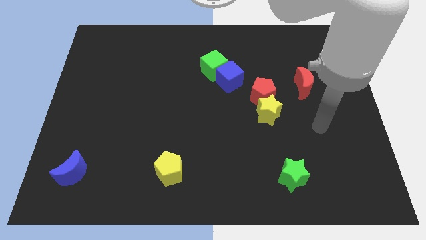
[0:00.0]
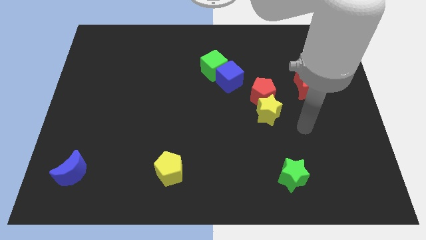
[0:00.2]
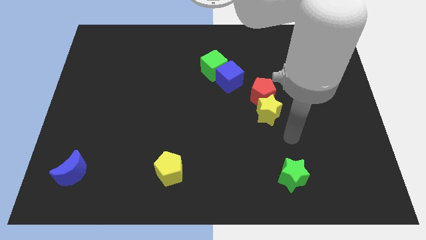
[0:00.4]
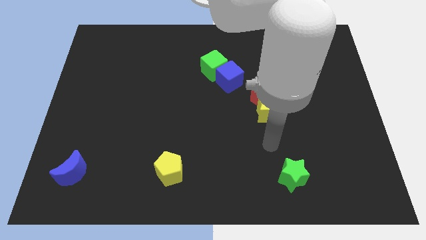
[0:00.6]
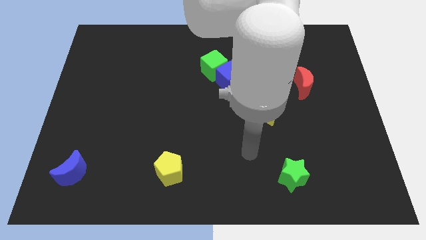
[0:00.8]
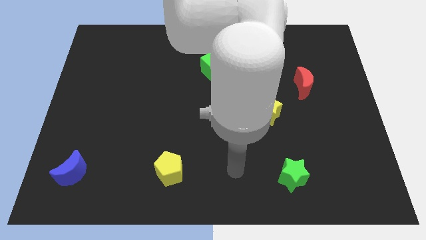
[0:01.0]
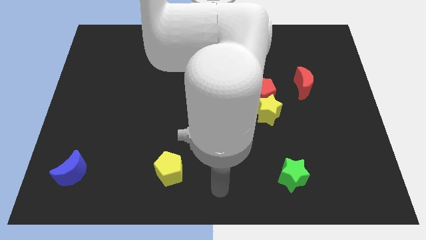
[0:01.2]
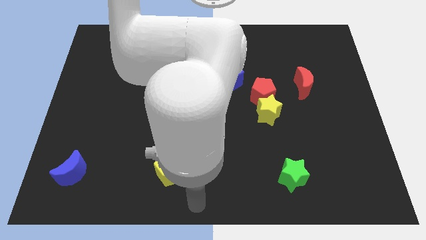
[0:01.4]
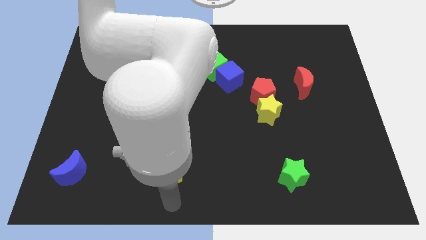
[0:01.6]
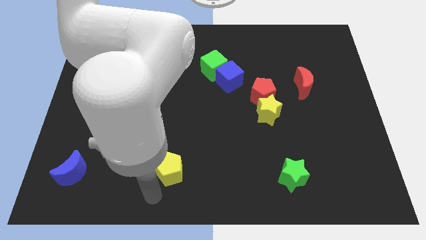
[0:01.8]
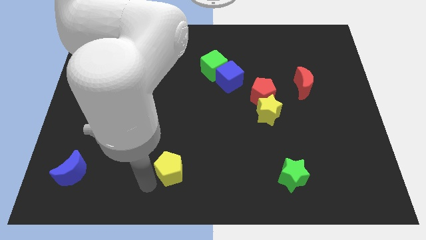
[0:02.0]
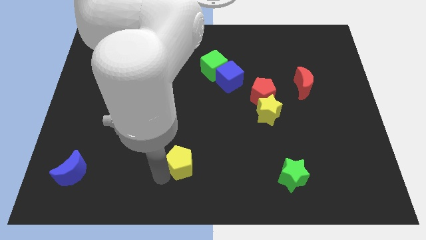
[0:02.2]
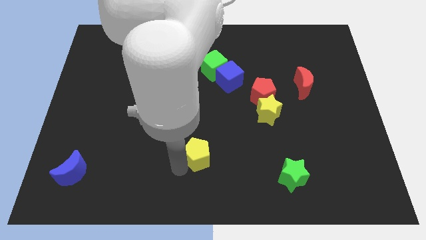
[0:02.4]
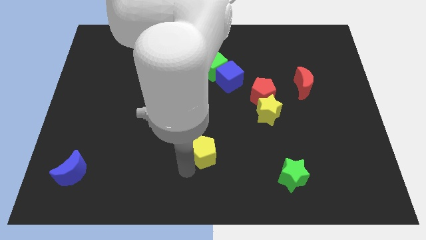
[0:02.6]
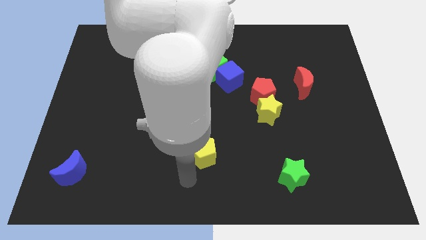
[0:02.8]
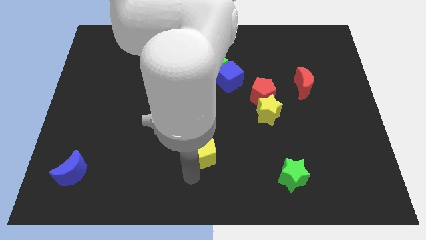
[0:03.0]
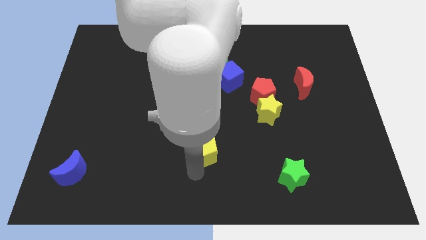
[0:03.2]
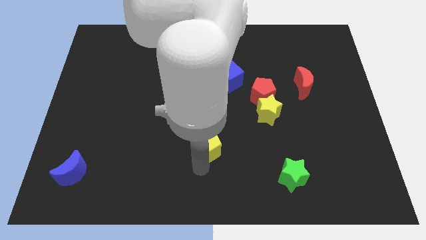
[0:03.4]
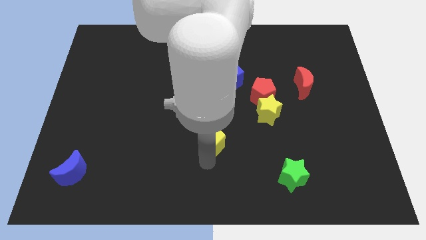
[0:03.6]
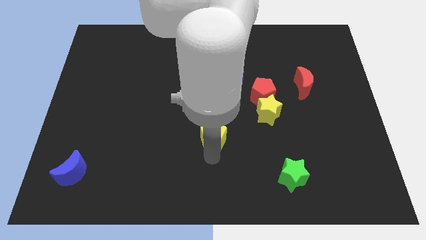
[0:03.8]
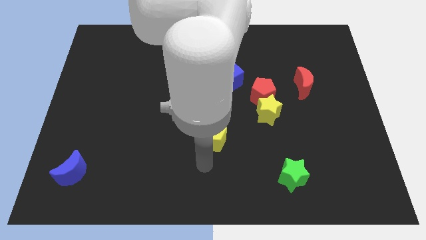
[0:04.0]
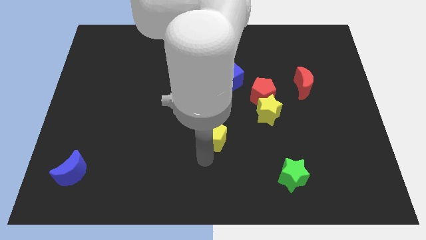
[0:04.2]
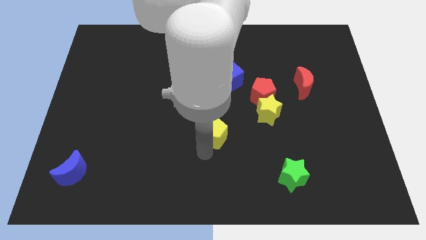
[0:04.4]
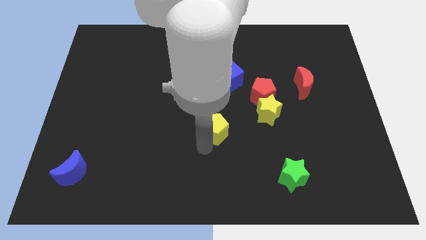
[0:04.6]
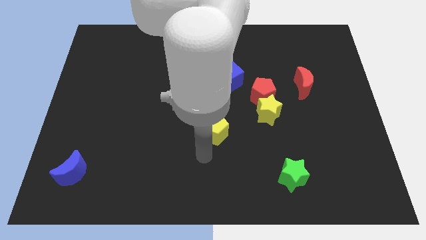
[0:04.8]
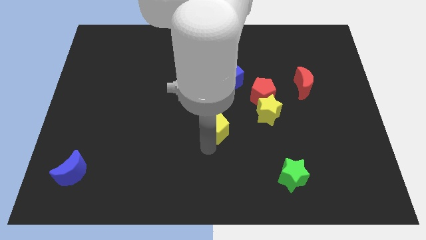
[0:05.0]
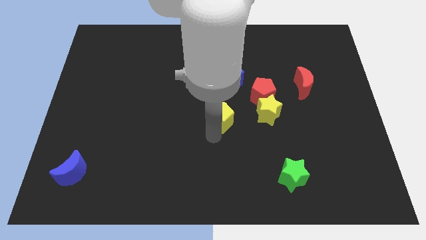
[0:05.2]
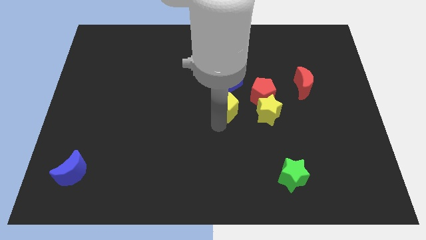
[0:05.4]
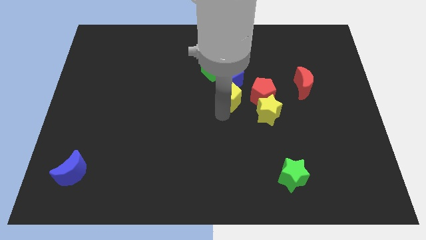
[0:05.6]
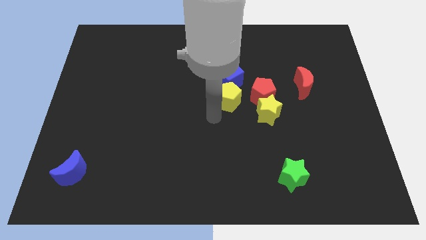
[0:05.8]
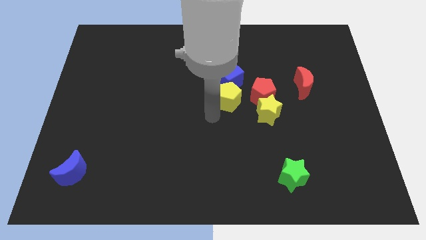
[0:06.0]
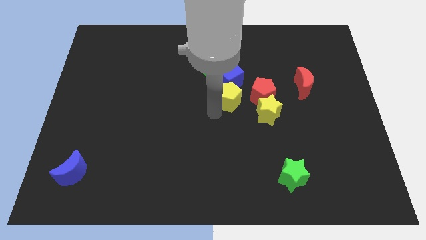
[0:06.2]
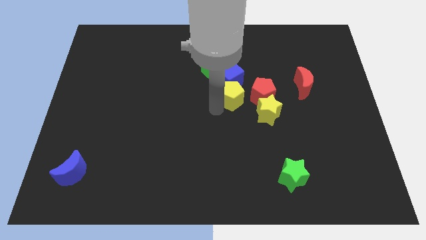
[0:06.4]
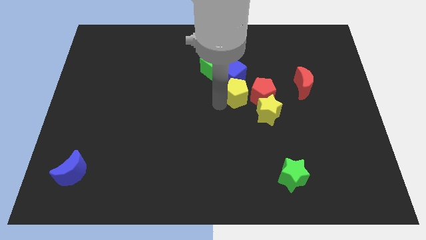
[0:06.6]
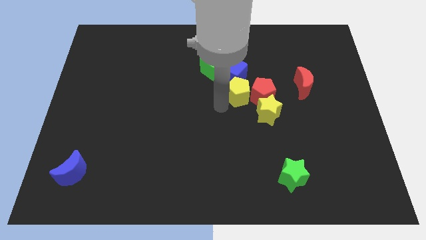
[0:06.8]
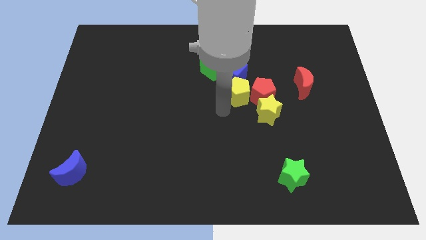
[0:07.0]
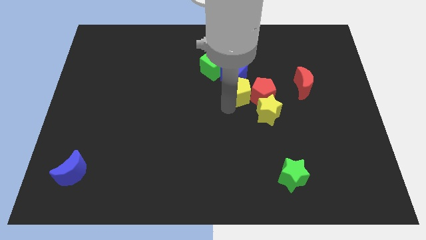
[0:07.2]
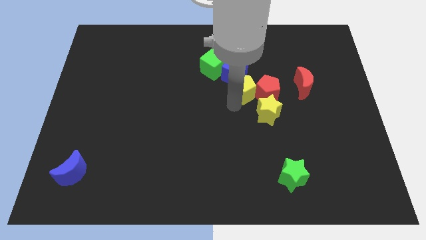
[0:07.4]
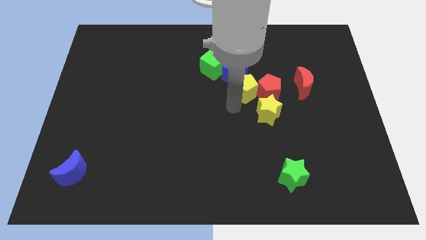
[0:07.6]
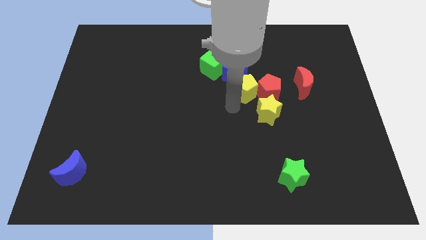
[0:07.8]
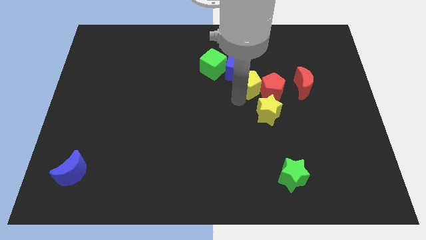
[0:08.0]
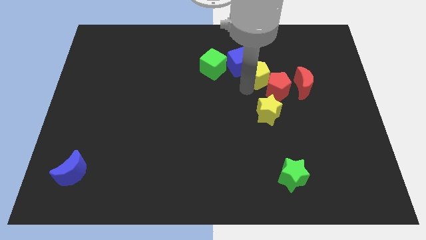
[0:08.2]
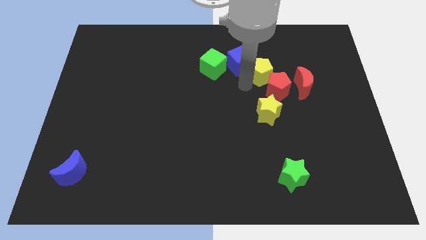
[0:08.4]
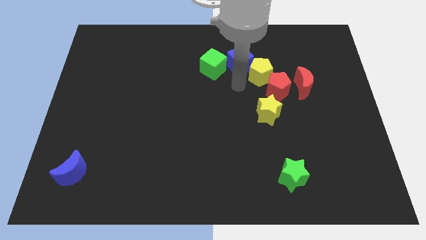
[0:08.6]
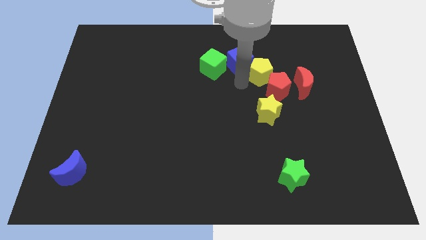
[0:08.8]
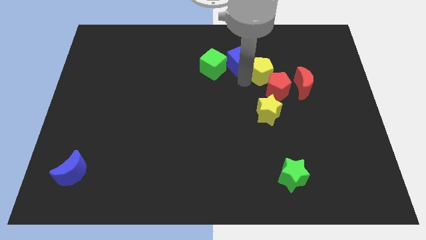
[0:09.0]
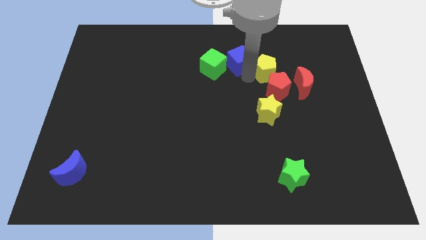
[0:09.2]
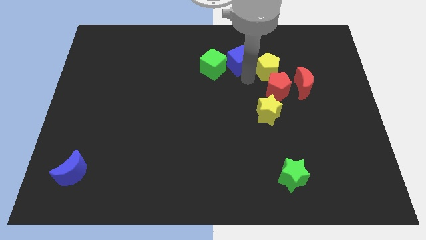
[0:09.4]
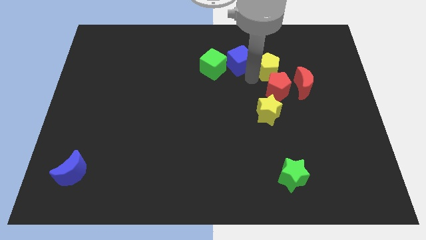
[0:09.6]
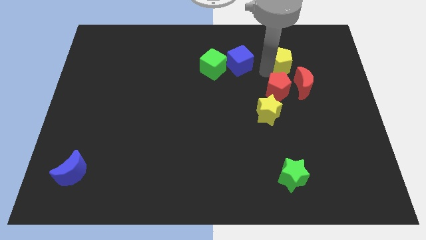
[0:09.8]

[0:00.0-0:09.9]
slide the yellow pentagon above the red moon

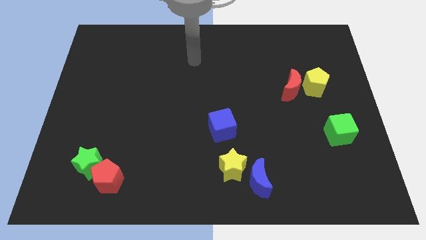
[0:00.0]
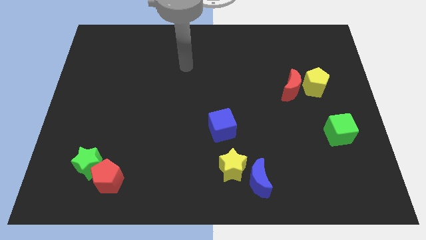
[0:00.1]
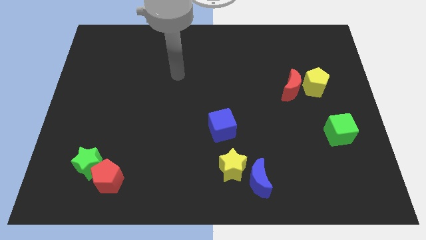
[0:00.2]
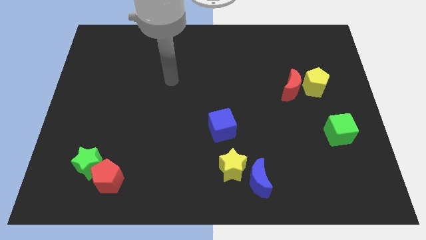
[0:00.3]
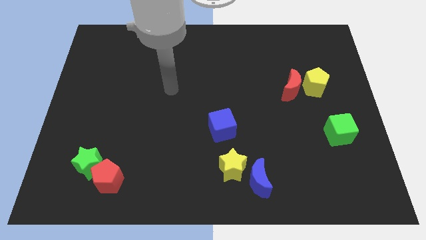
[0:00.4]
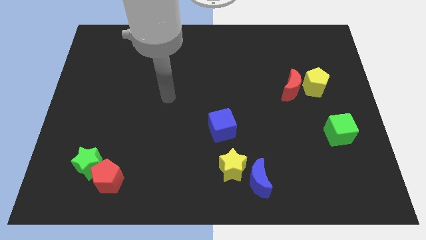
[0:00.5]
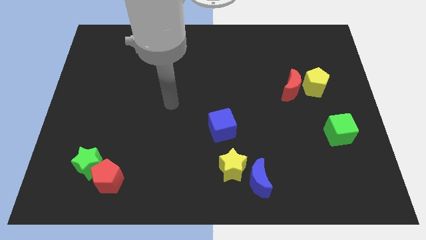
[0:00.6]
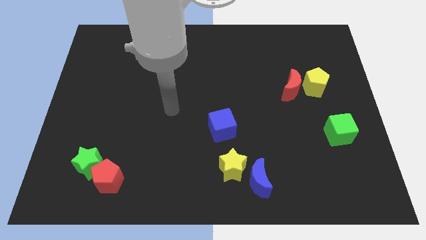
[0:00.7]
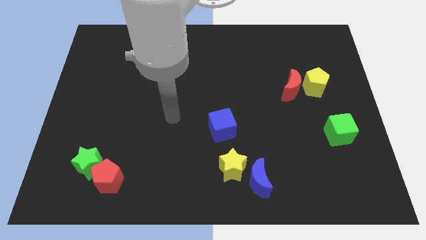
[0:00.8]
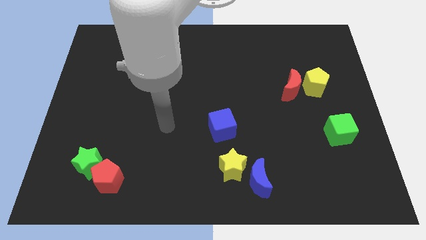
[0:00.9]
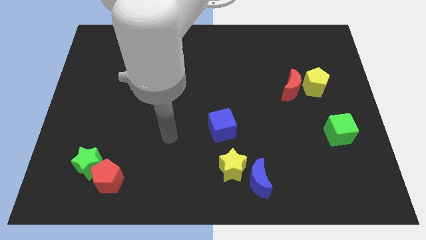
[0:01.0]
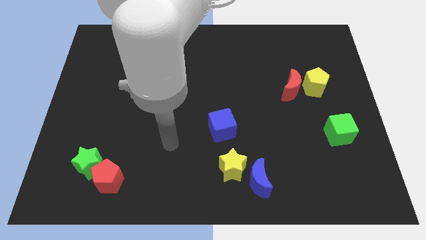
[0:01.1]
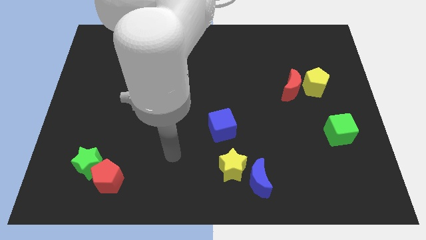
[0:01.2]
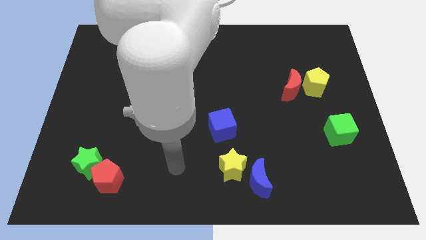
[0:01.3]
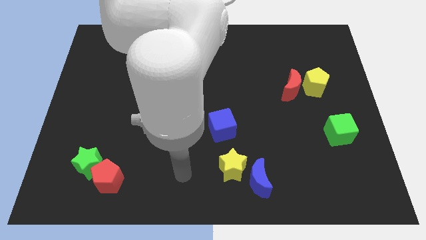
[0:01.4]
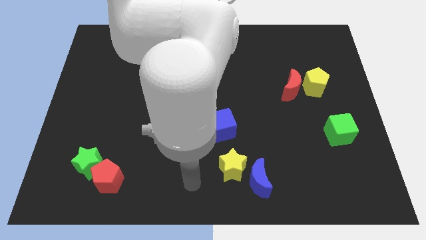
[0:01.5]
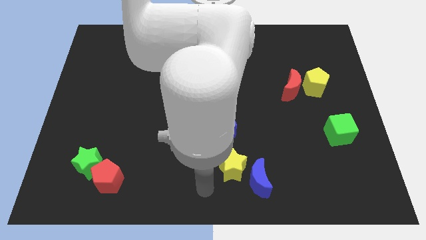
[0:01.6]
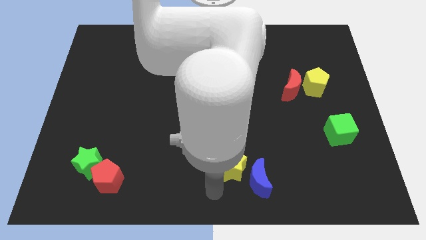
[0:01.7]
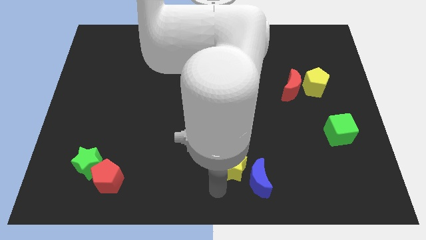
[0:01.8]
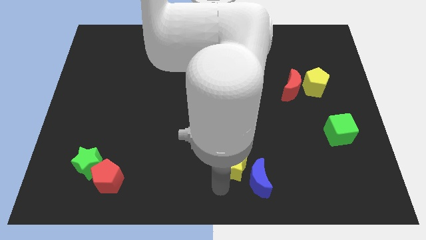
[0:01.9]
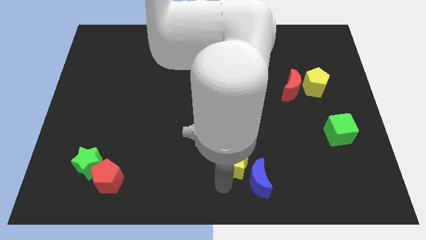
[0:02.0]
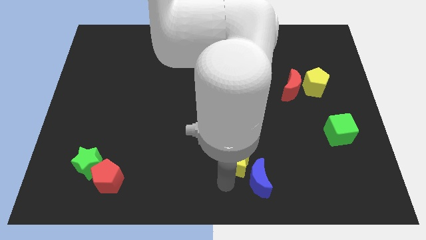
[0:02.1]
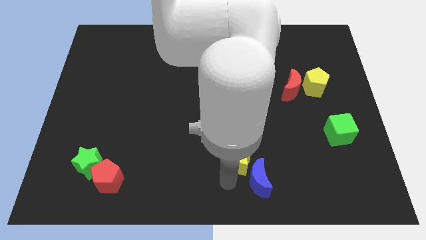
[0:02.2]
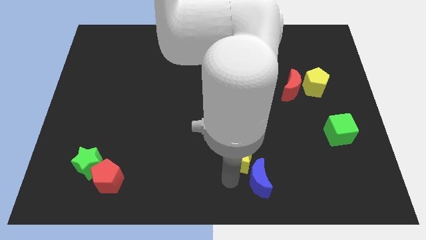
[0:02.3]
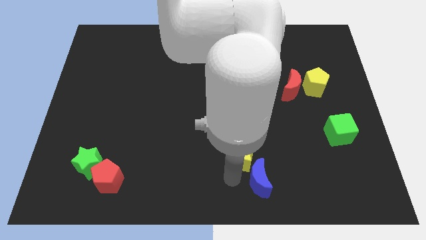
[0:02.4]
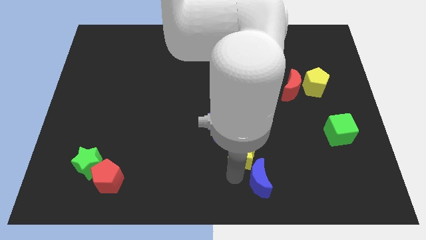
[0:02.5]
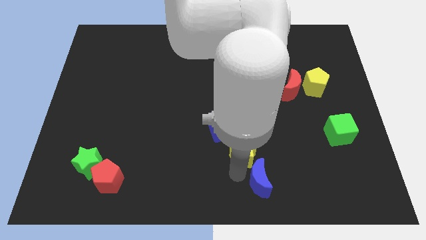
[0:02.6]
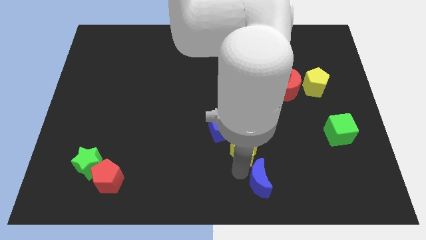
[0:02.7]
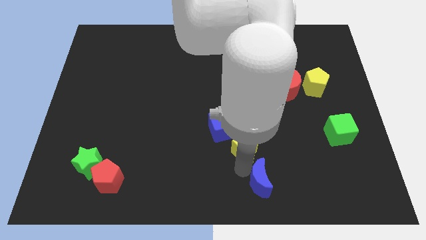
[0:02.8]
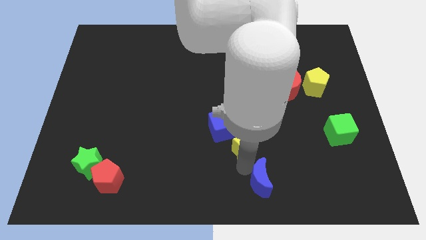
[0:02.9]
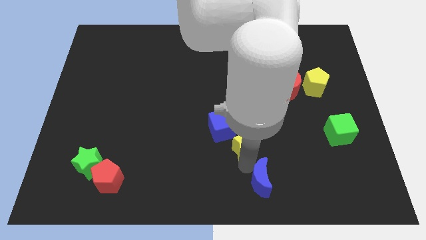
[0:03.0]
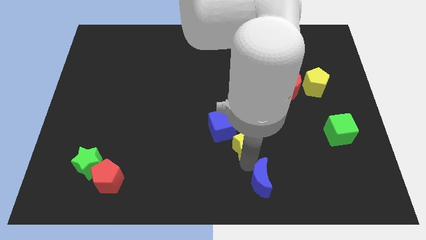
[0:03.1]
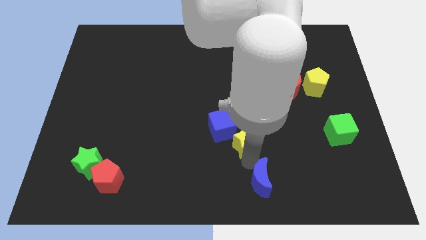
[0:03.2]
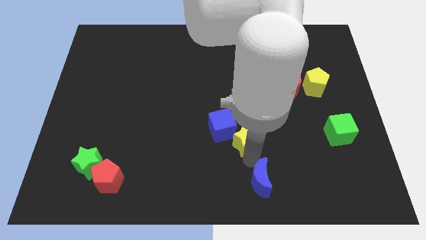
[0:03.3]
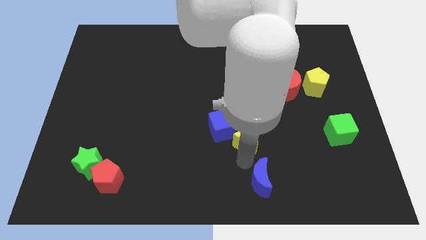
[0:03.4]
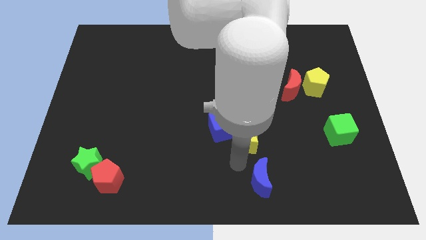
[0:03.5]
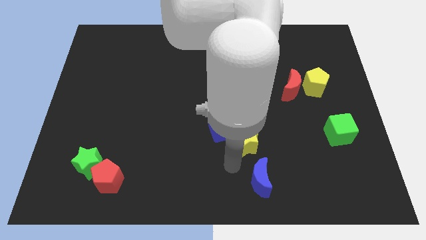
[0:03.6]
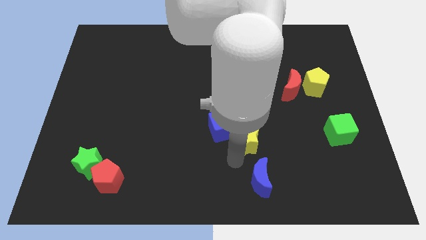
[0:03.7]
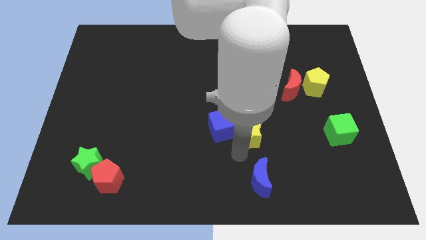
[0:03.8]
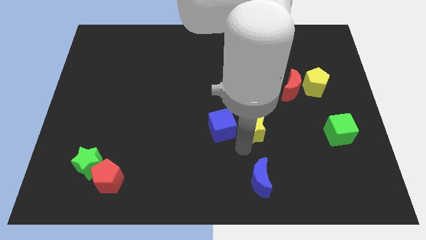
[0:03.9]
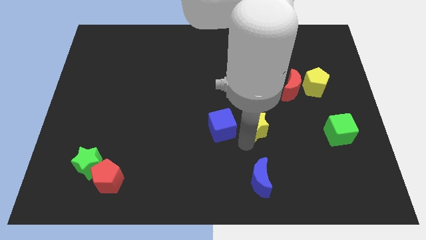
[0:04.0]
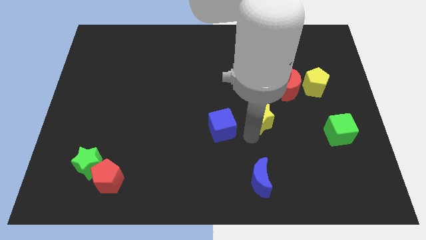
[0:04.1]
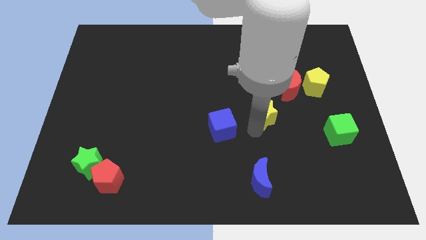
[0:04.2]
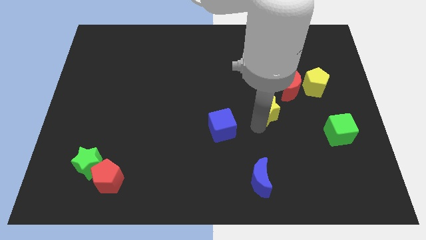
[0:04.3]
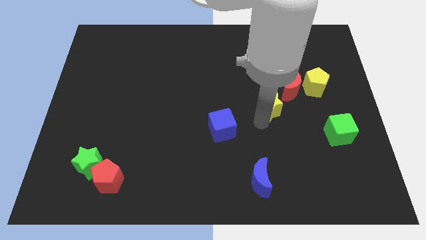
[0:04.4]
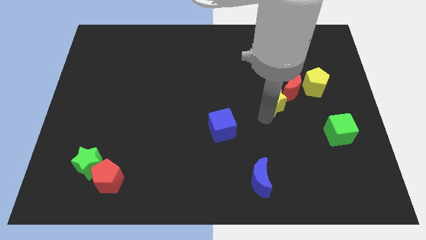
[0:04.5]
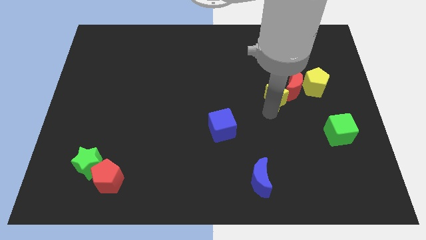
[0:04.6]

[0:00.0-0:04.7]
push the yellow star to the left of the yellow pentagon
